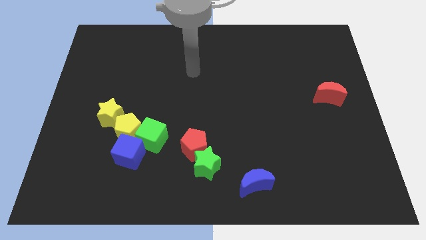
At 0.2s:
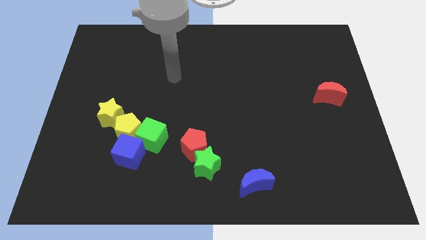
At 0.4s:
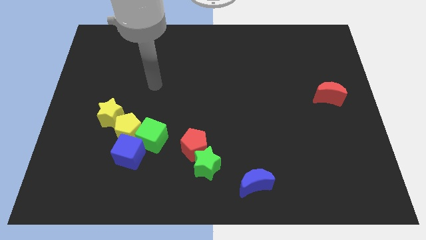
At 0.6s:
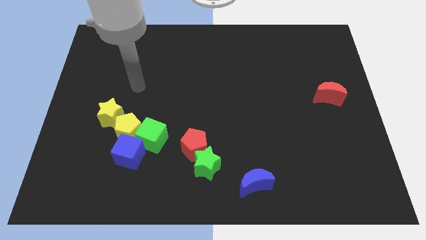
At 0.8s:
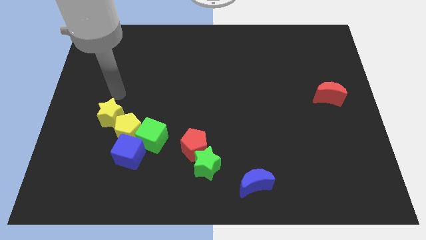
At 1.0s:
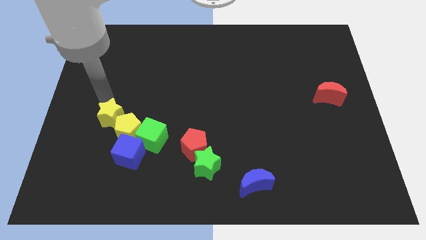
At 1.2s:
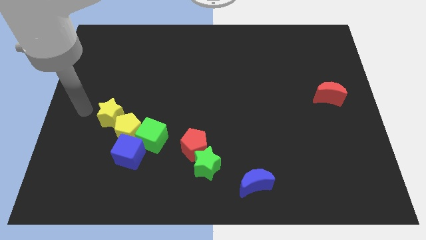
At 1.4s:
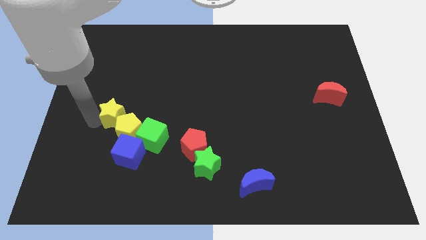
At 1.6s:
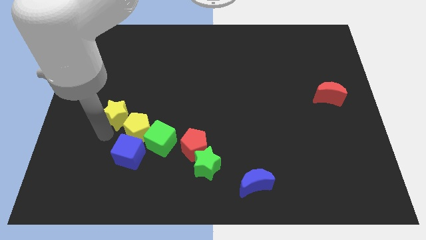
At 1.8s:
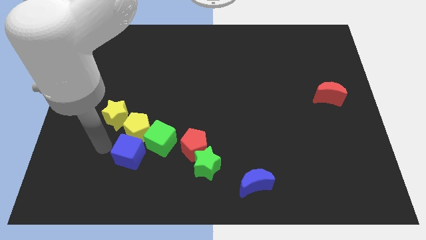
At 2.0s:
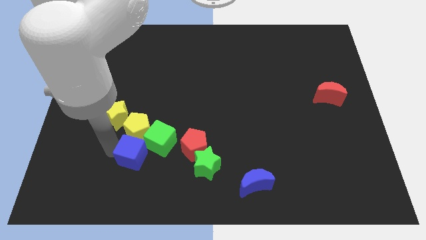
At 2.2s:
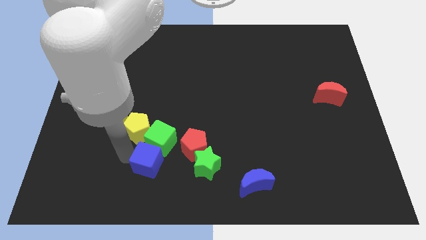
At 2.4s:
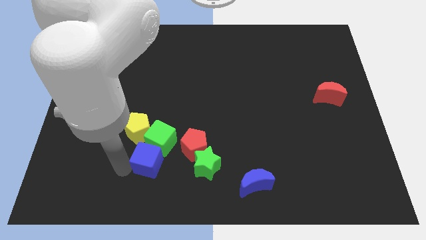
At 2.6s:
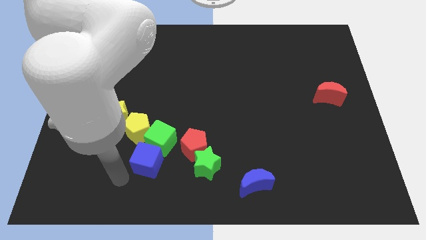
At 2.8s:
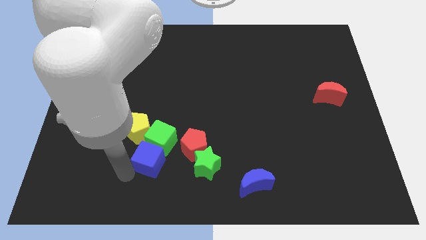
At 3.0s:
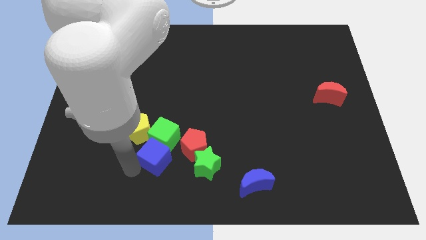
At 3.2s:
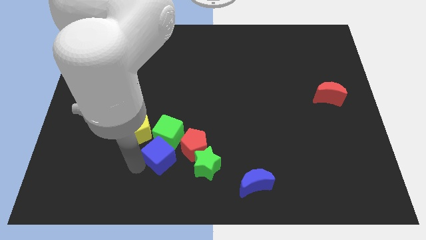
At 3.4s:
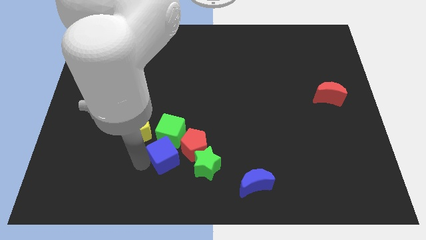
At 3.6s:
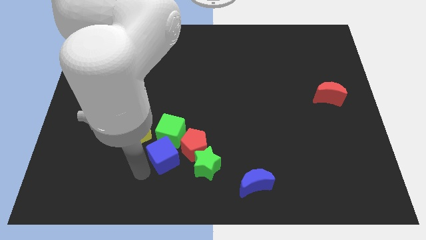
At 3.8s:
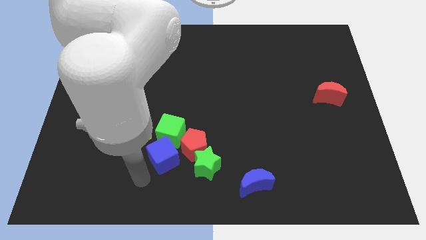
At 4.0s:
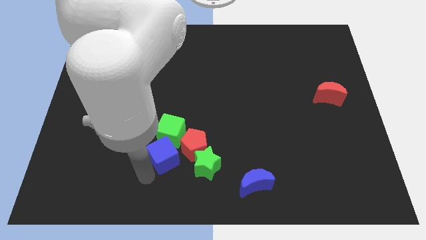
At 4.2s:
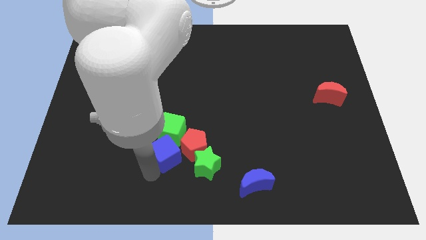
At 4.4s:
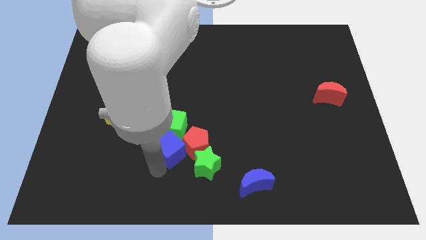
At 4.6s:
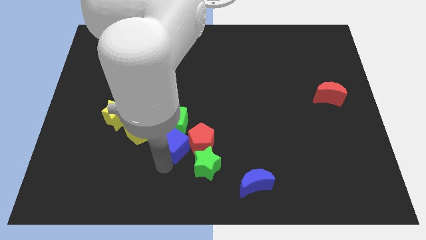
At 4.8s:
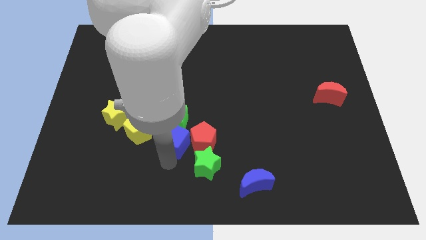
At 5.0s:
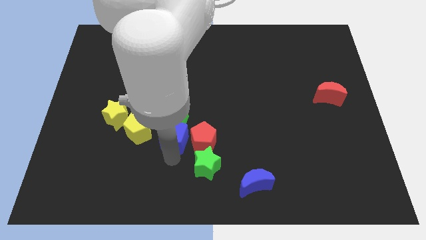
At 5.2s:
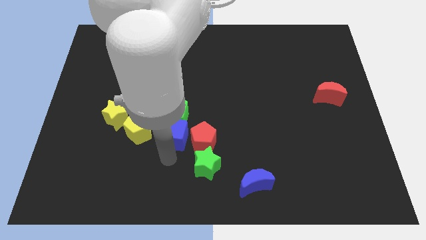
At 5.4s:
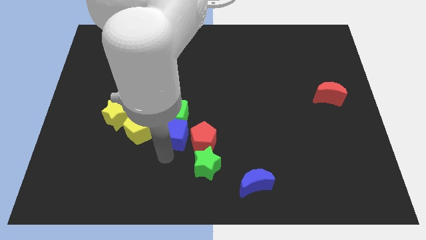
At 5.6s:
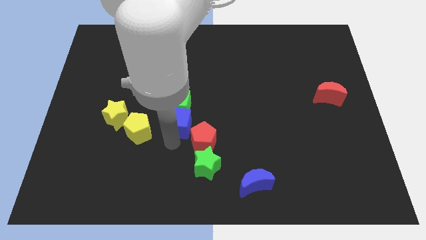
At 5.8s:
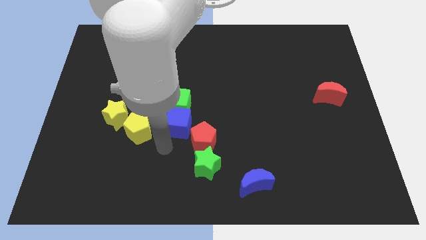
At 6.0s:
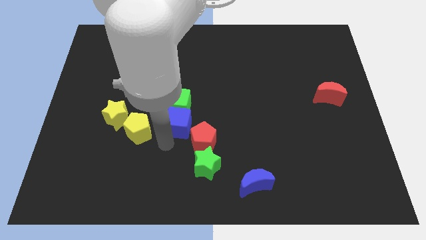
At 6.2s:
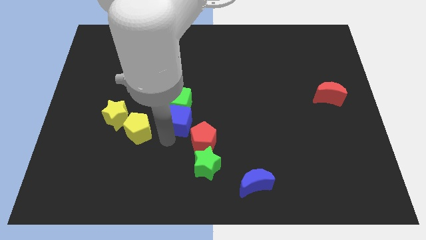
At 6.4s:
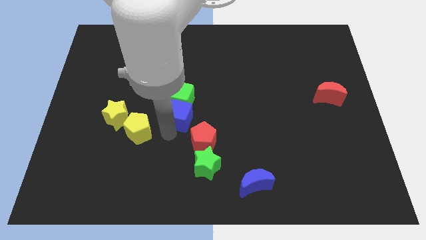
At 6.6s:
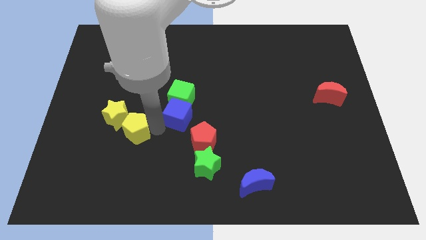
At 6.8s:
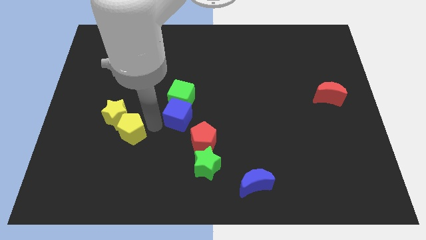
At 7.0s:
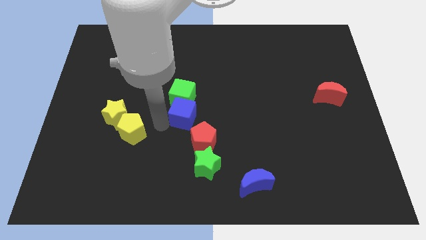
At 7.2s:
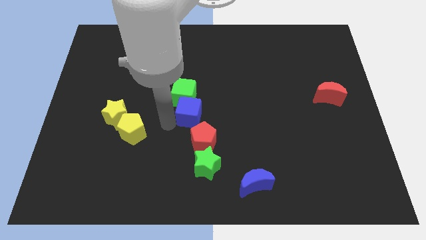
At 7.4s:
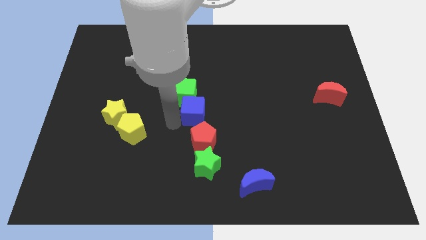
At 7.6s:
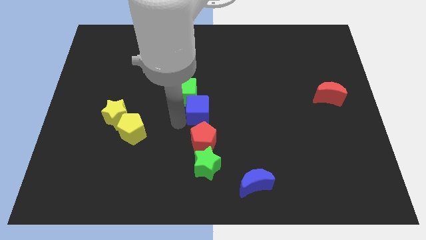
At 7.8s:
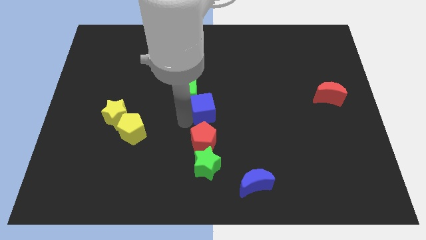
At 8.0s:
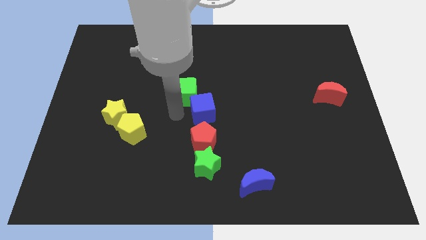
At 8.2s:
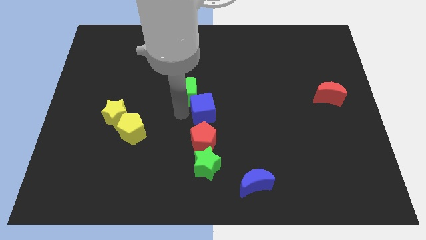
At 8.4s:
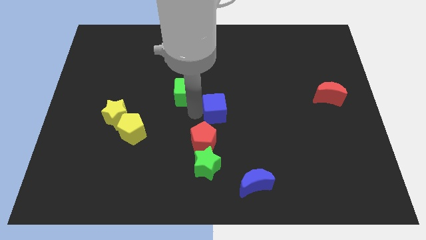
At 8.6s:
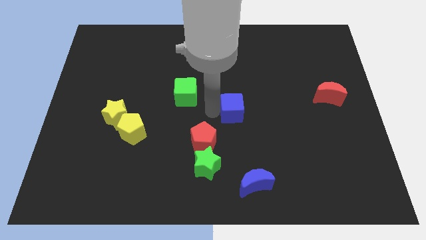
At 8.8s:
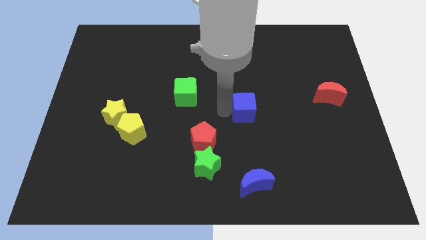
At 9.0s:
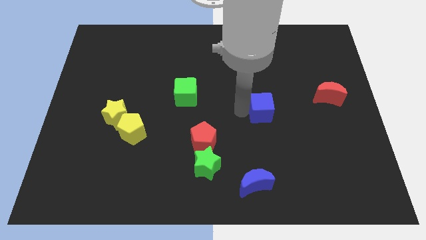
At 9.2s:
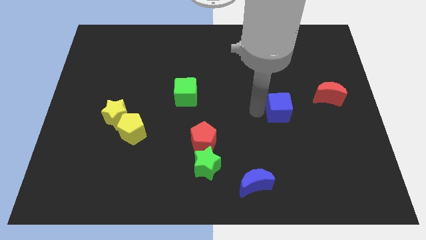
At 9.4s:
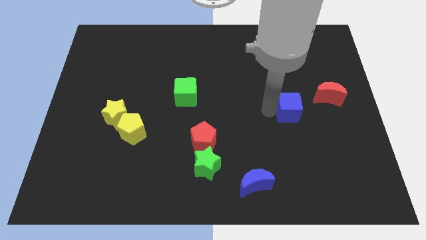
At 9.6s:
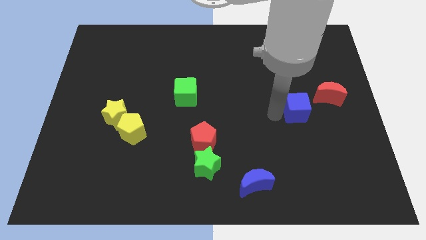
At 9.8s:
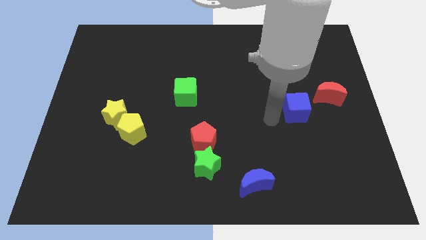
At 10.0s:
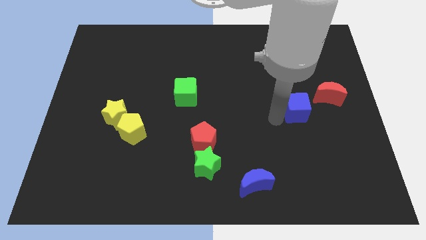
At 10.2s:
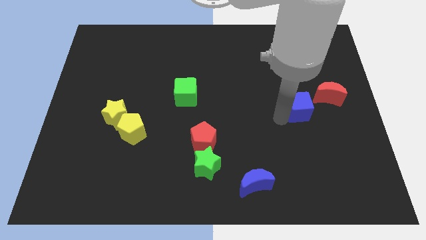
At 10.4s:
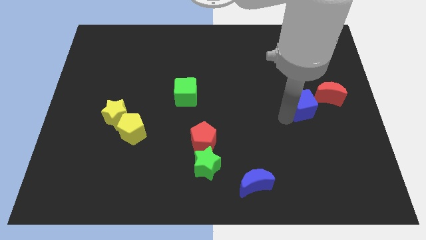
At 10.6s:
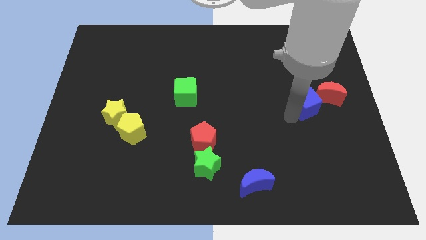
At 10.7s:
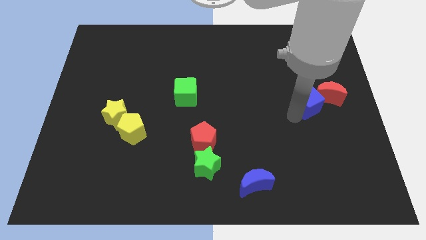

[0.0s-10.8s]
slide the blue cube next to the red moon

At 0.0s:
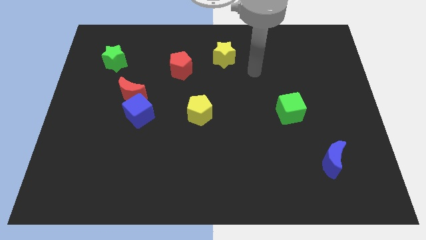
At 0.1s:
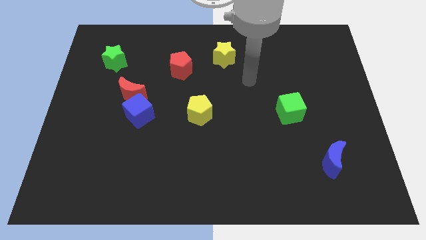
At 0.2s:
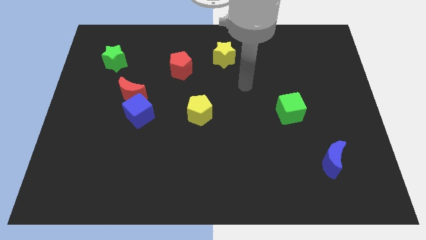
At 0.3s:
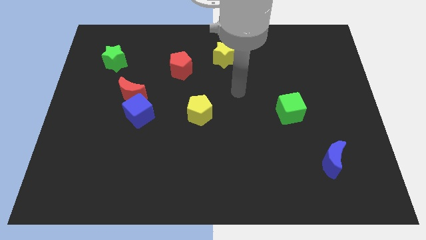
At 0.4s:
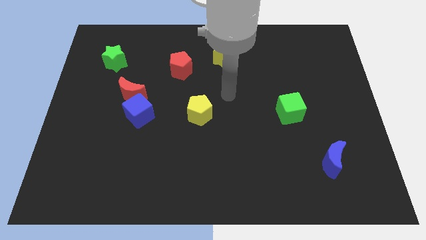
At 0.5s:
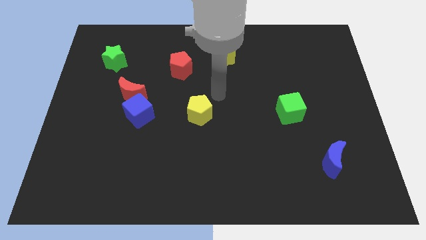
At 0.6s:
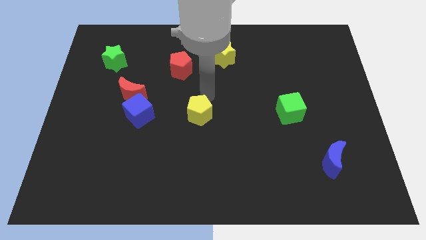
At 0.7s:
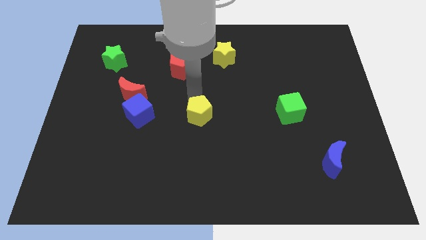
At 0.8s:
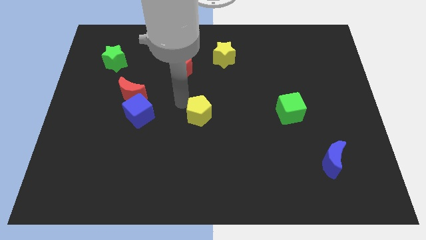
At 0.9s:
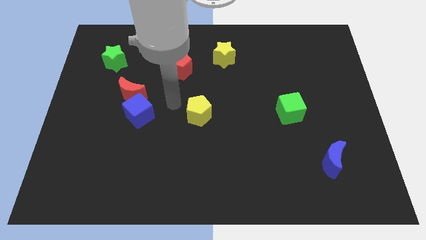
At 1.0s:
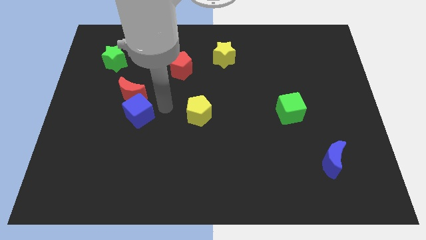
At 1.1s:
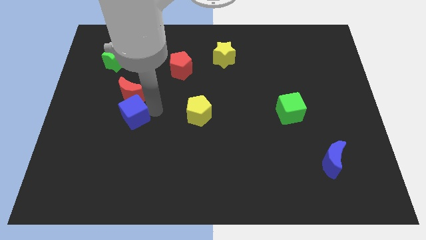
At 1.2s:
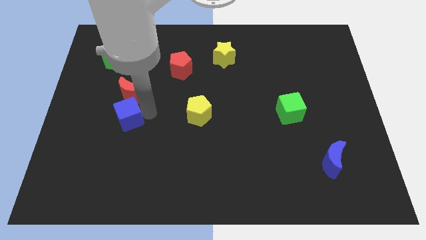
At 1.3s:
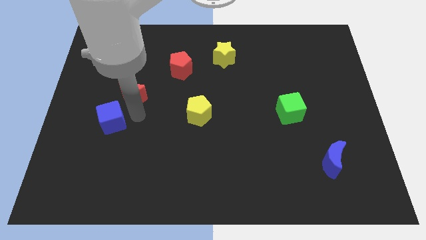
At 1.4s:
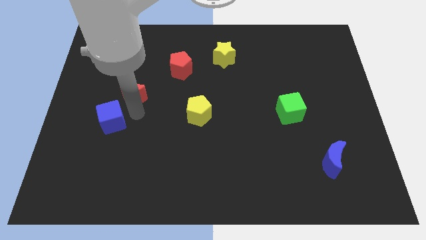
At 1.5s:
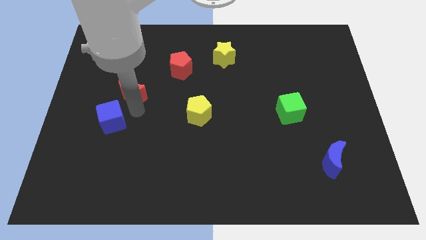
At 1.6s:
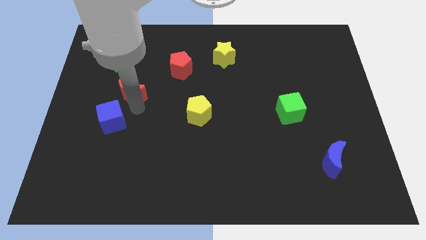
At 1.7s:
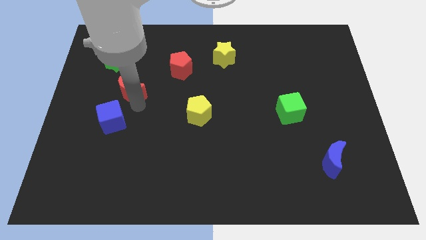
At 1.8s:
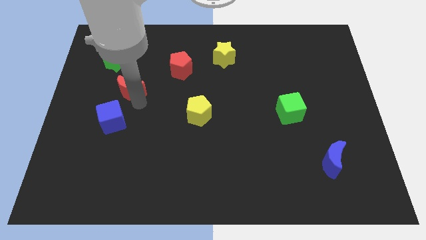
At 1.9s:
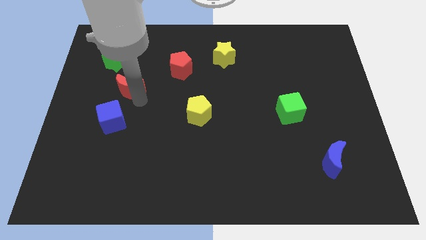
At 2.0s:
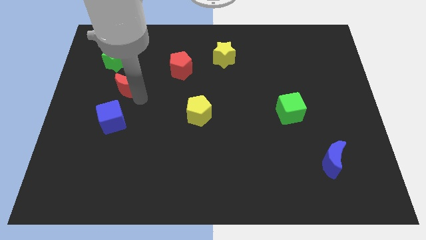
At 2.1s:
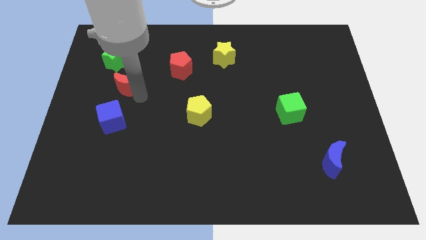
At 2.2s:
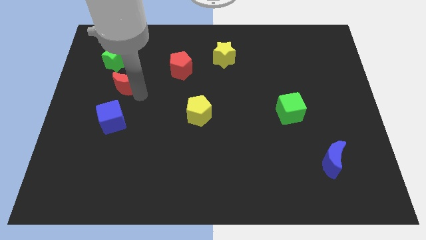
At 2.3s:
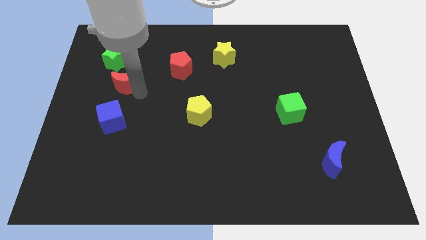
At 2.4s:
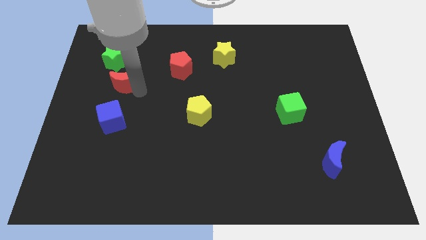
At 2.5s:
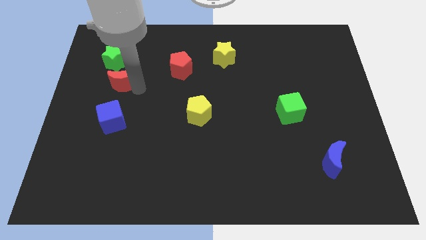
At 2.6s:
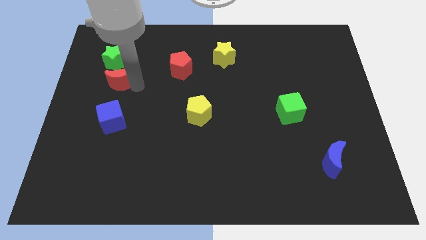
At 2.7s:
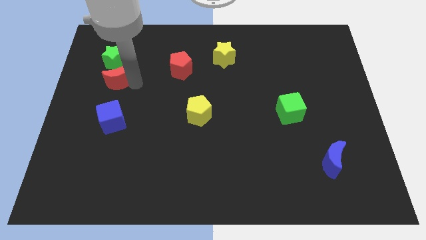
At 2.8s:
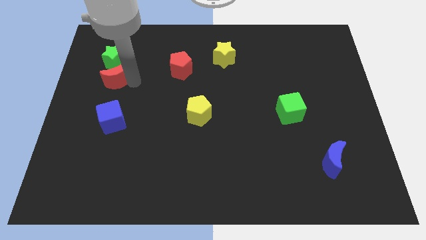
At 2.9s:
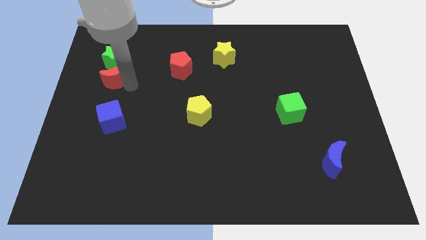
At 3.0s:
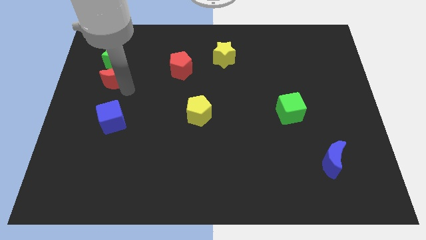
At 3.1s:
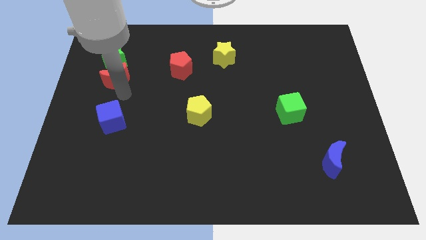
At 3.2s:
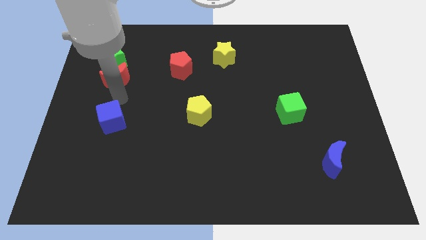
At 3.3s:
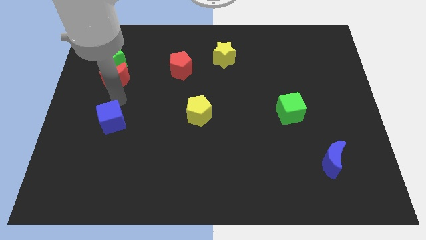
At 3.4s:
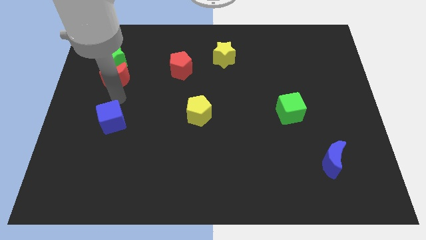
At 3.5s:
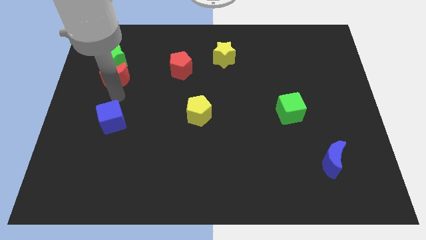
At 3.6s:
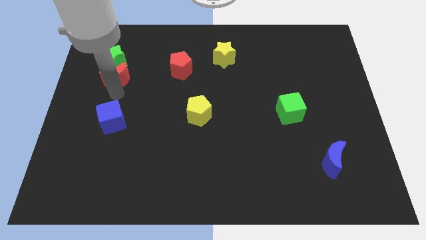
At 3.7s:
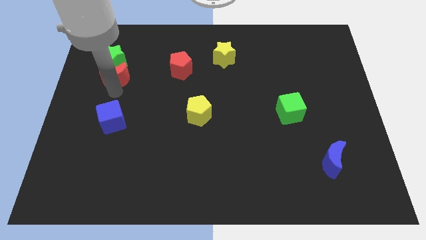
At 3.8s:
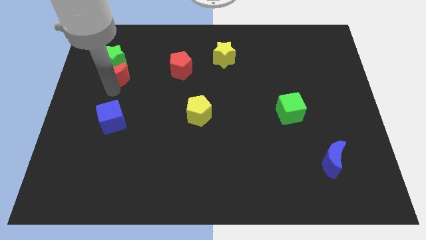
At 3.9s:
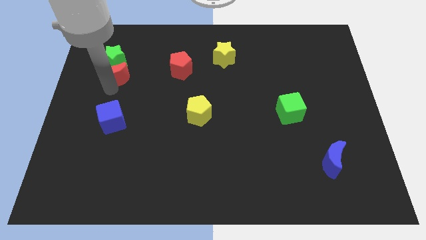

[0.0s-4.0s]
push the red moon towards the green star
